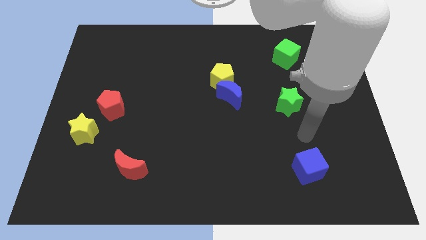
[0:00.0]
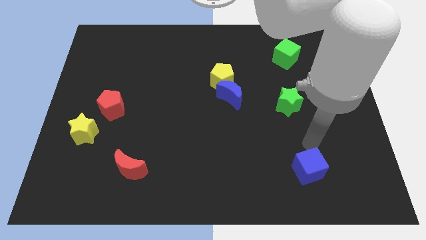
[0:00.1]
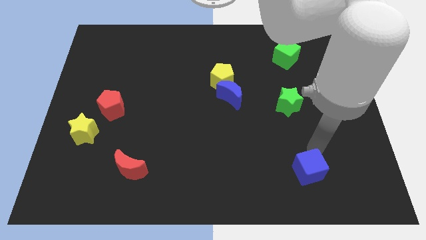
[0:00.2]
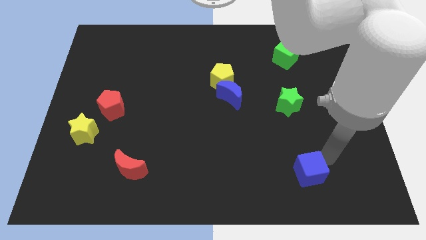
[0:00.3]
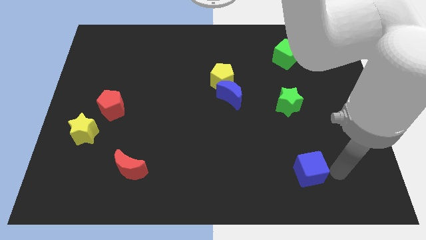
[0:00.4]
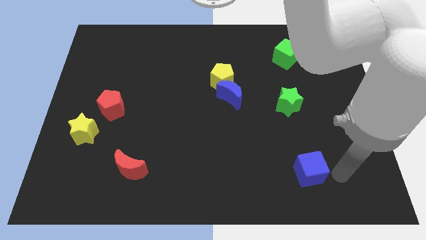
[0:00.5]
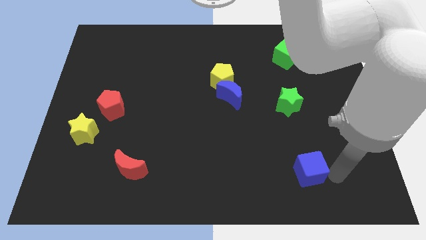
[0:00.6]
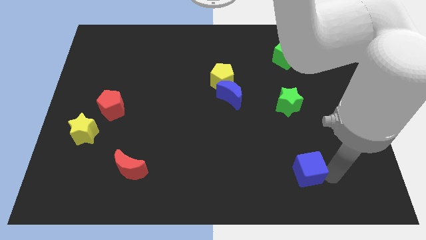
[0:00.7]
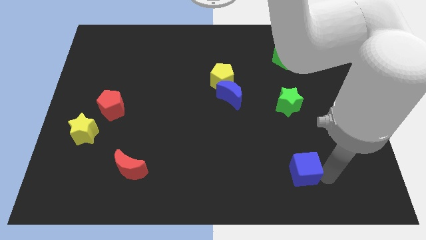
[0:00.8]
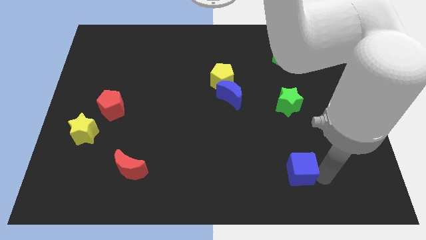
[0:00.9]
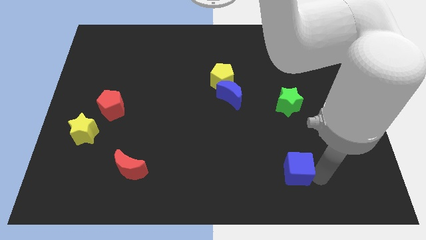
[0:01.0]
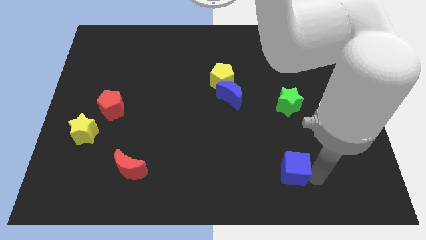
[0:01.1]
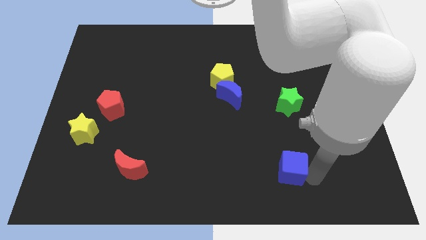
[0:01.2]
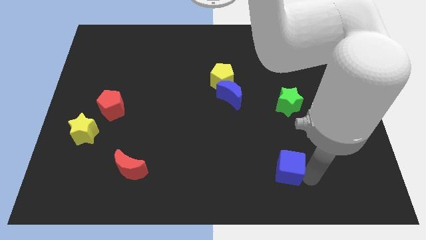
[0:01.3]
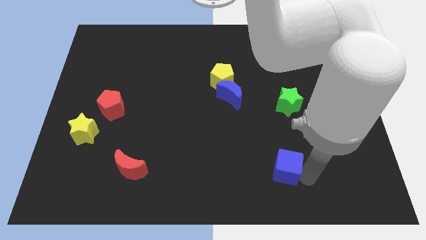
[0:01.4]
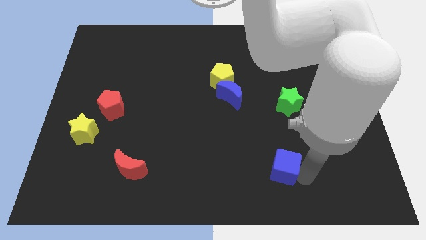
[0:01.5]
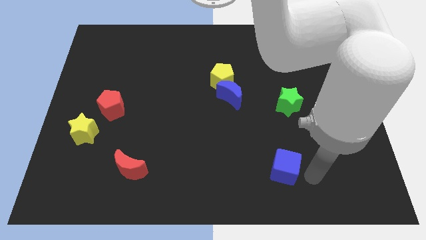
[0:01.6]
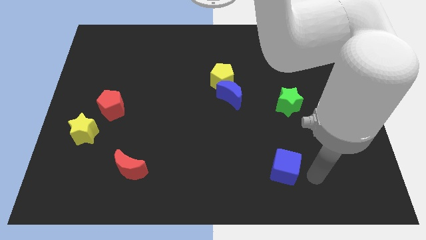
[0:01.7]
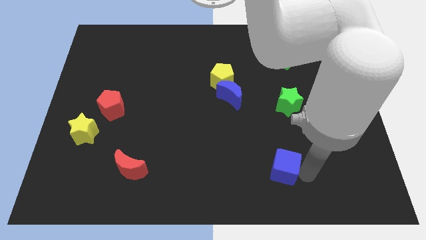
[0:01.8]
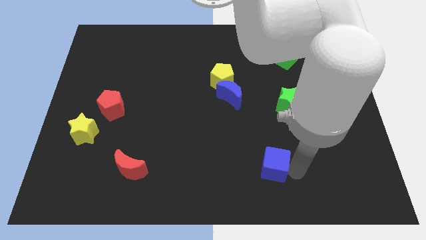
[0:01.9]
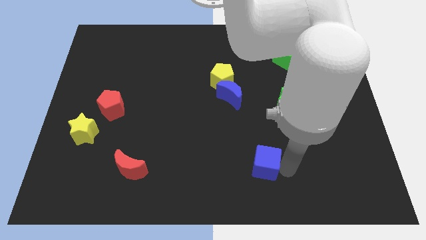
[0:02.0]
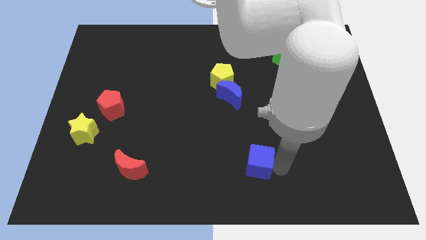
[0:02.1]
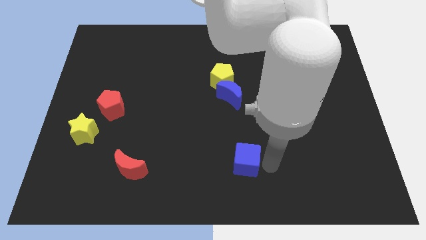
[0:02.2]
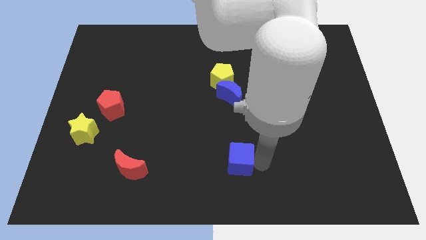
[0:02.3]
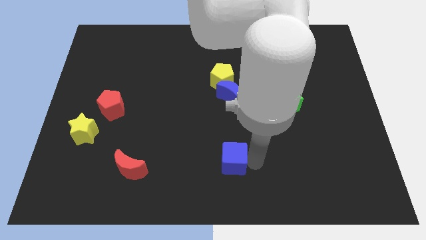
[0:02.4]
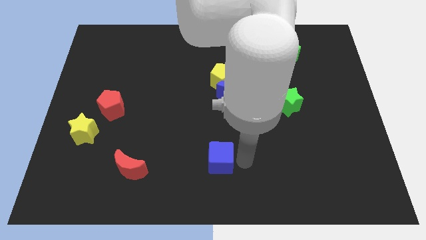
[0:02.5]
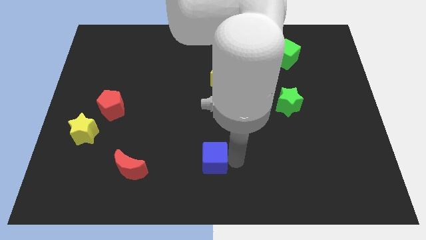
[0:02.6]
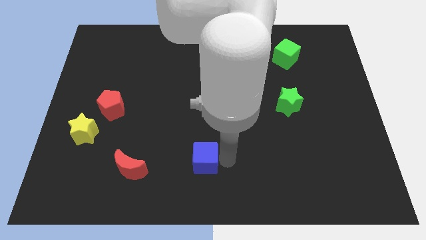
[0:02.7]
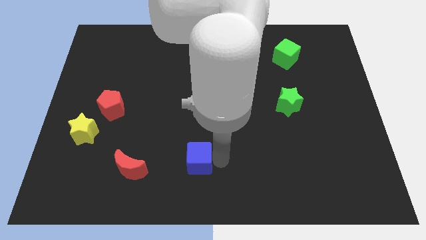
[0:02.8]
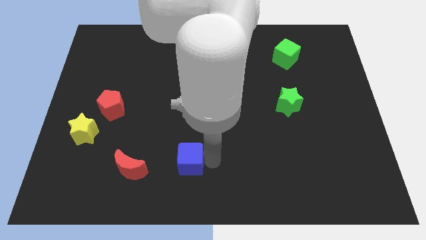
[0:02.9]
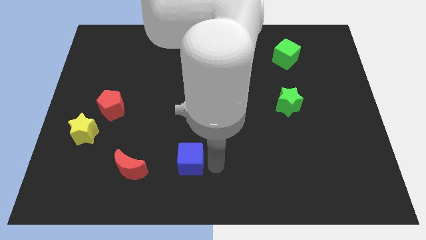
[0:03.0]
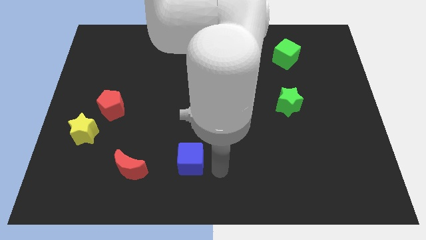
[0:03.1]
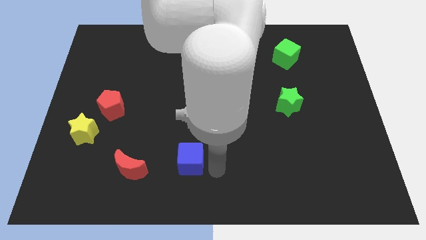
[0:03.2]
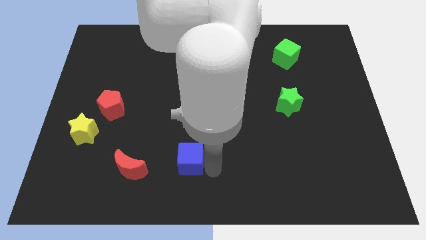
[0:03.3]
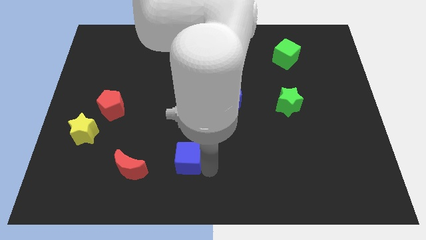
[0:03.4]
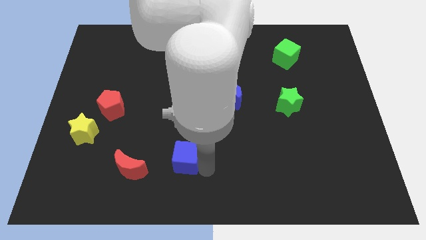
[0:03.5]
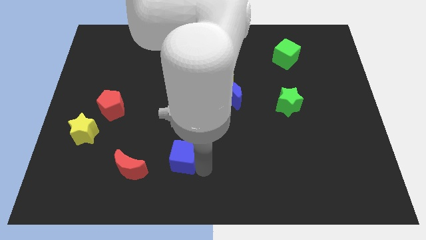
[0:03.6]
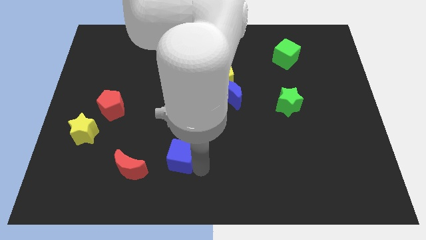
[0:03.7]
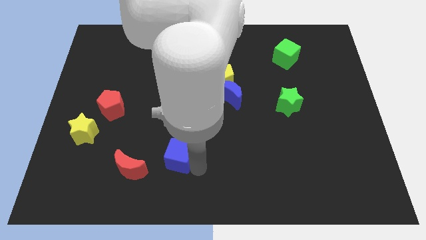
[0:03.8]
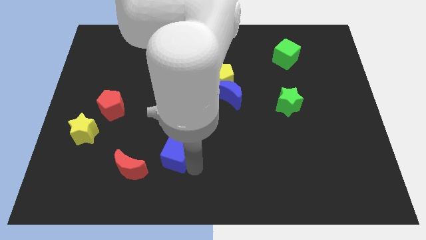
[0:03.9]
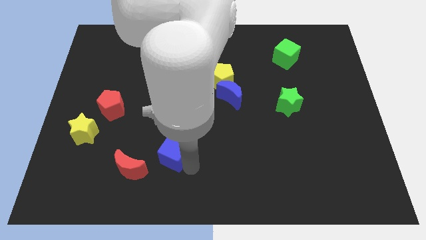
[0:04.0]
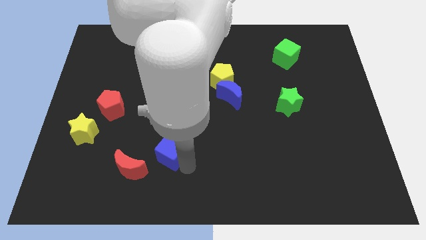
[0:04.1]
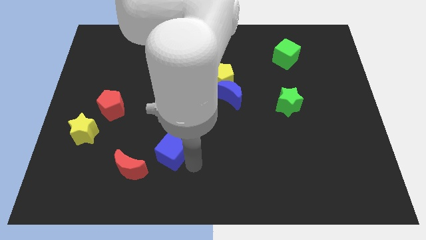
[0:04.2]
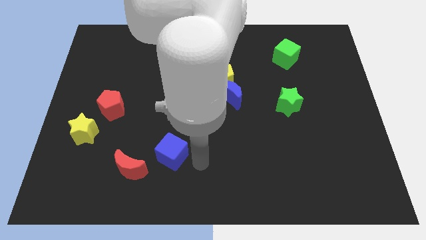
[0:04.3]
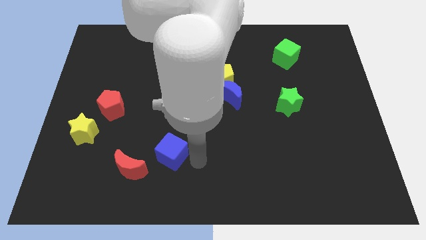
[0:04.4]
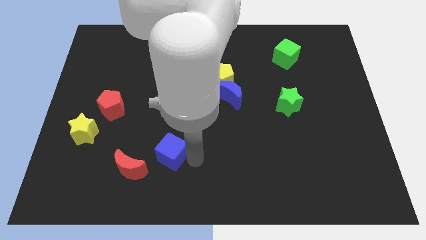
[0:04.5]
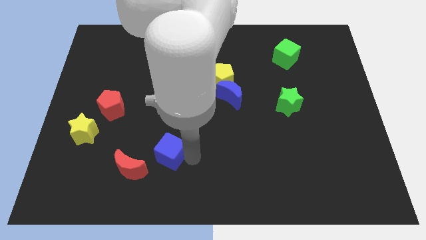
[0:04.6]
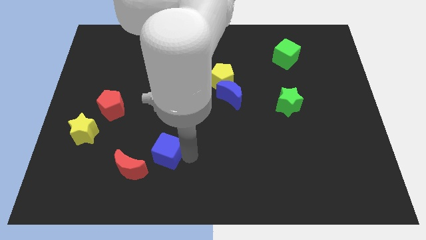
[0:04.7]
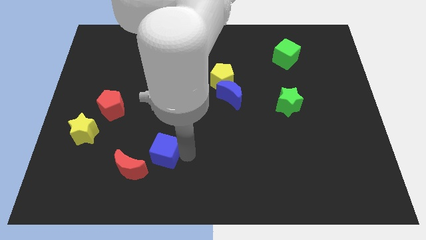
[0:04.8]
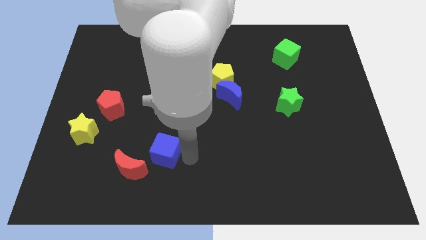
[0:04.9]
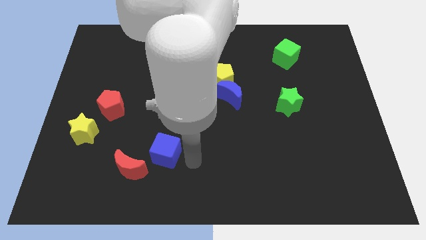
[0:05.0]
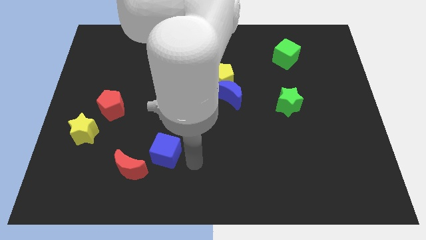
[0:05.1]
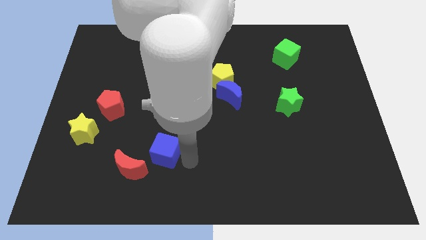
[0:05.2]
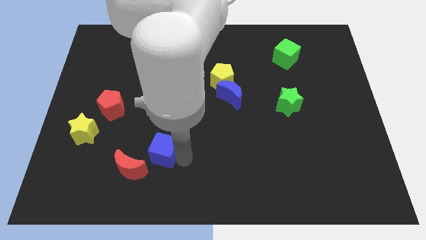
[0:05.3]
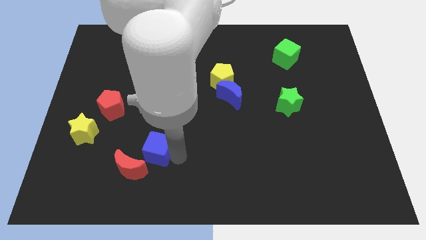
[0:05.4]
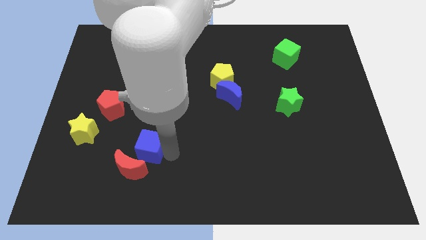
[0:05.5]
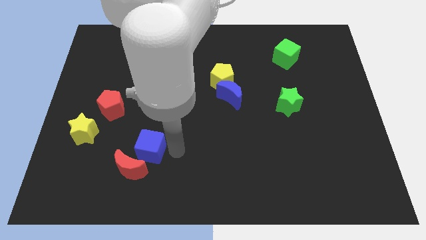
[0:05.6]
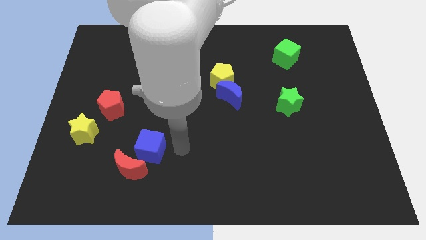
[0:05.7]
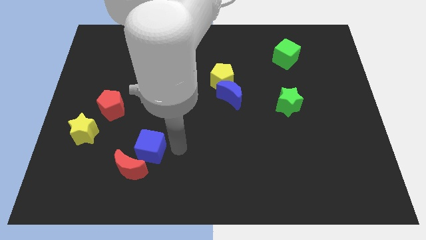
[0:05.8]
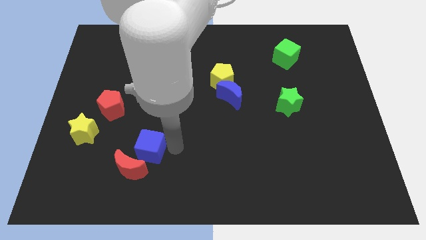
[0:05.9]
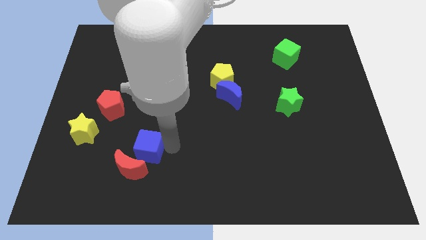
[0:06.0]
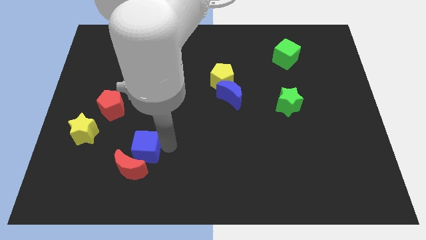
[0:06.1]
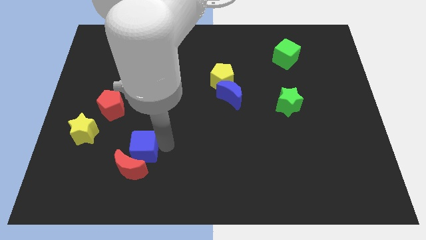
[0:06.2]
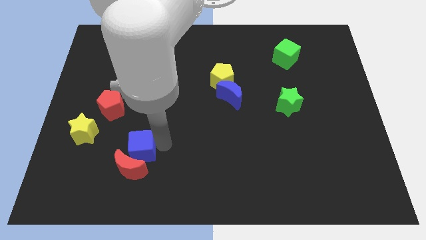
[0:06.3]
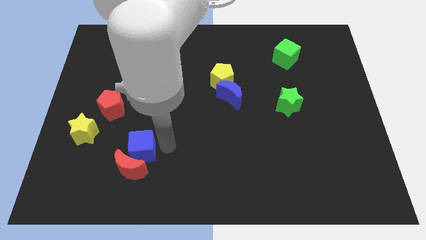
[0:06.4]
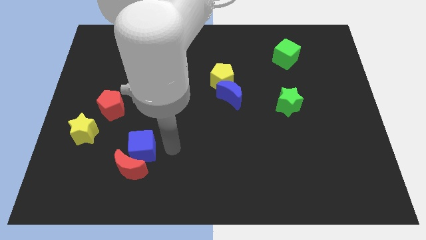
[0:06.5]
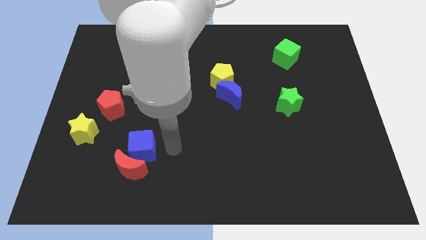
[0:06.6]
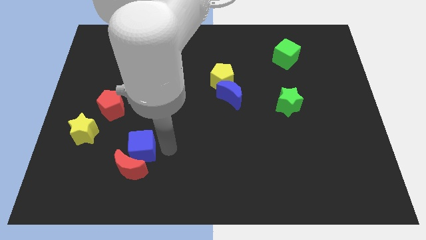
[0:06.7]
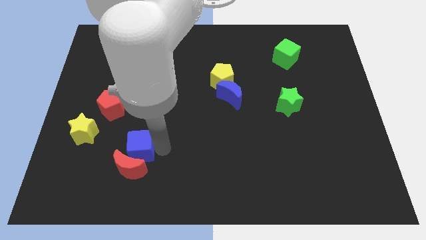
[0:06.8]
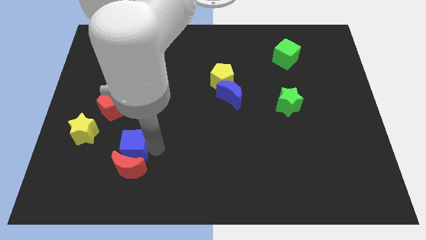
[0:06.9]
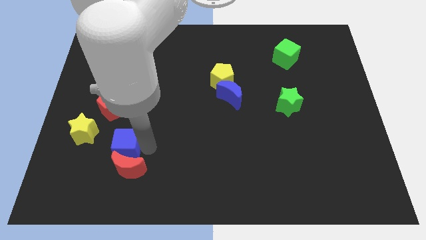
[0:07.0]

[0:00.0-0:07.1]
push the blue cube diagonally down and to the right of the yellow star

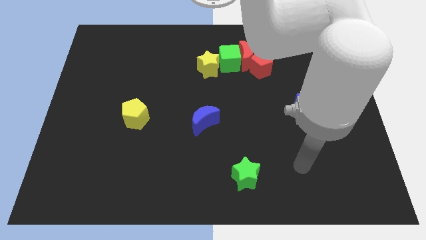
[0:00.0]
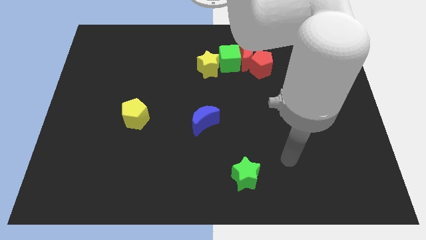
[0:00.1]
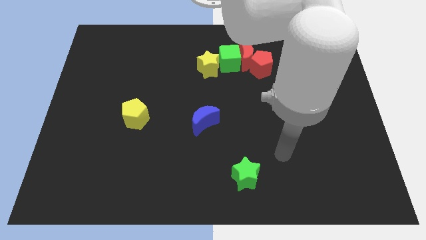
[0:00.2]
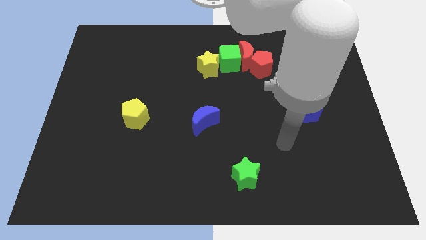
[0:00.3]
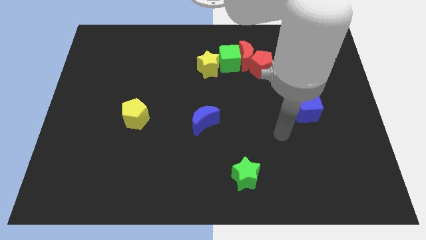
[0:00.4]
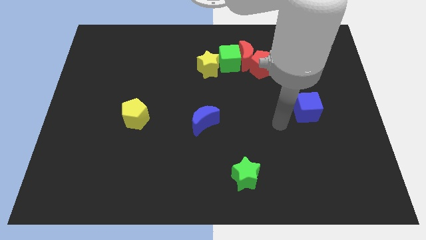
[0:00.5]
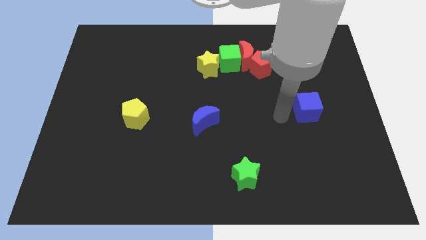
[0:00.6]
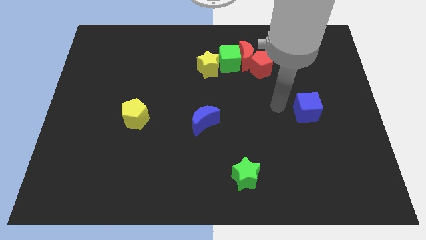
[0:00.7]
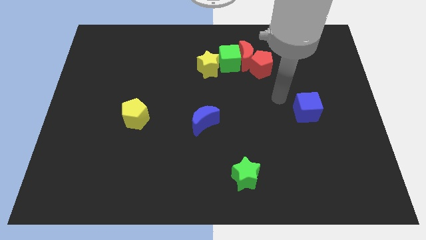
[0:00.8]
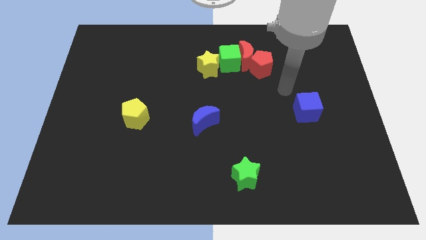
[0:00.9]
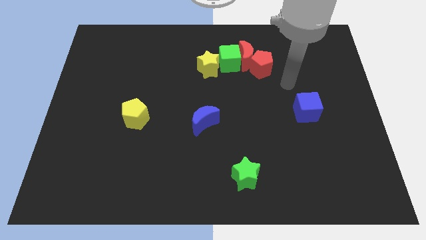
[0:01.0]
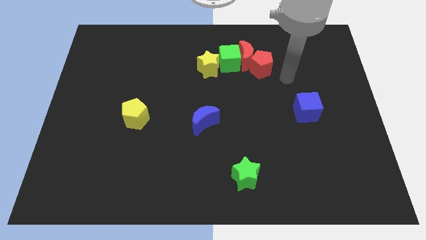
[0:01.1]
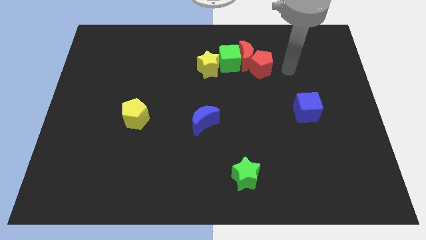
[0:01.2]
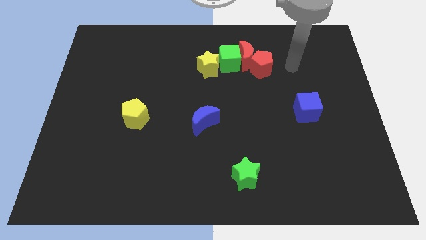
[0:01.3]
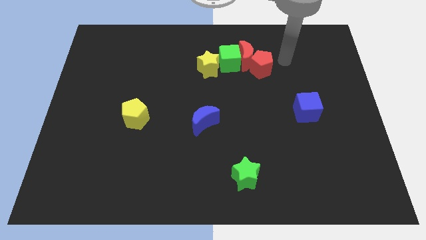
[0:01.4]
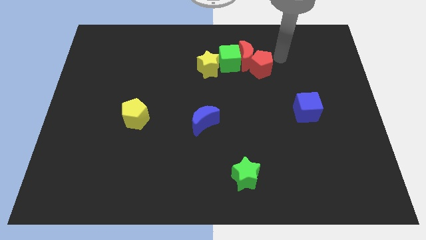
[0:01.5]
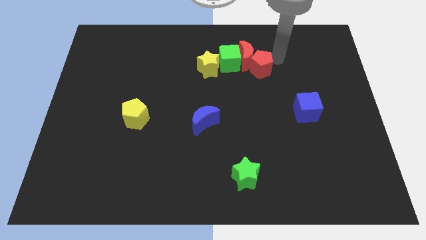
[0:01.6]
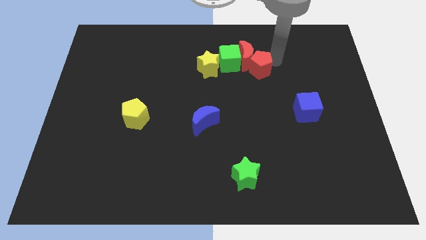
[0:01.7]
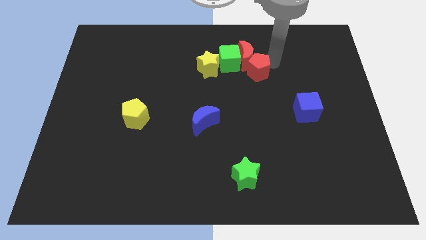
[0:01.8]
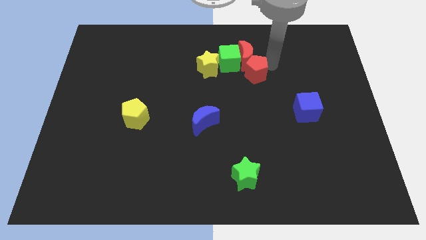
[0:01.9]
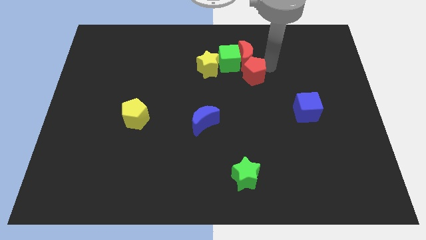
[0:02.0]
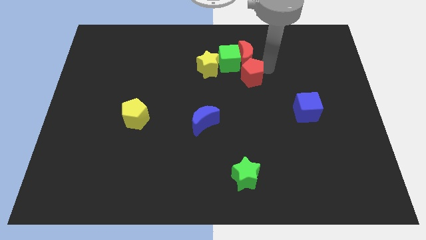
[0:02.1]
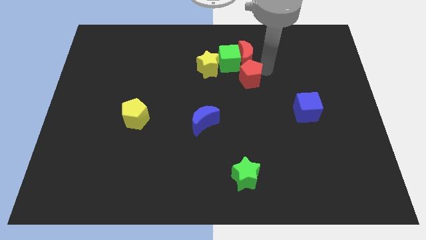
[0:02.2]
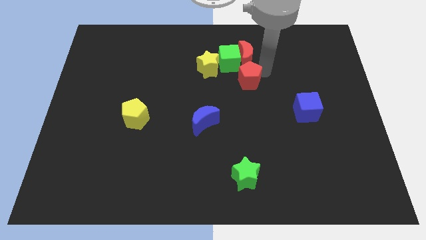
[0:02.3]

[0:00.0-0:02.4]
move the red pentagon diagonally down and to the right of the yellow star
